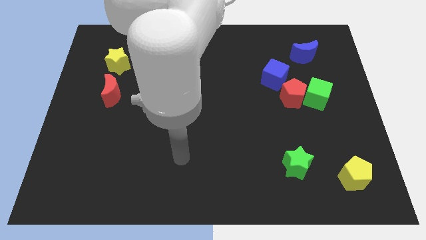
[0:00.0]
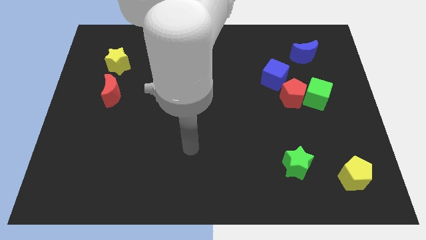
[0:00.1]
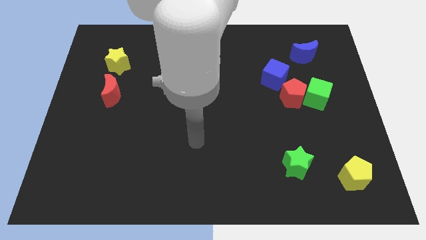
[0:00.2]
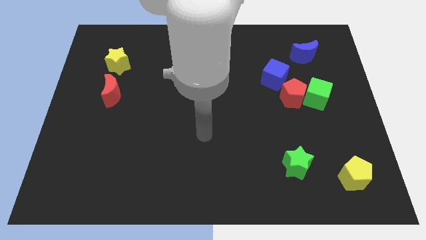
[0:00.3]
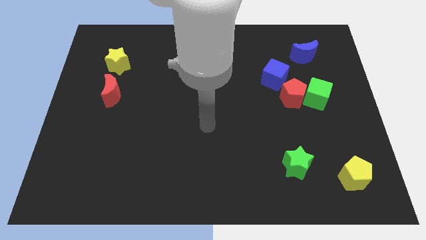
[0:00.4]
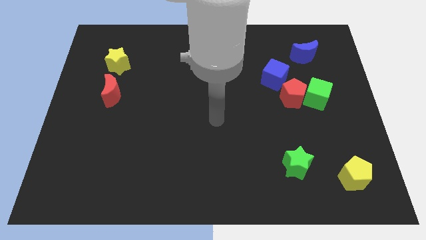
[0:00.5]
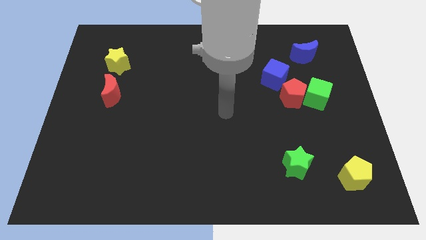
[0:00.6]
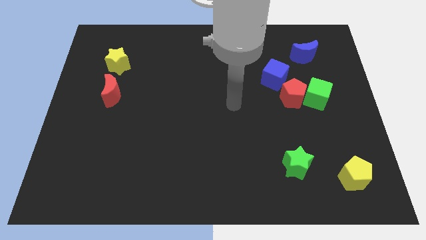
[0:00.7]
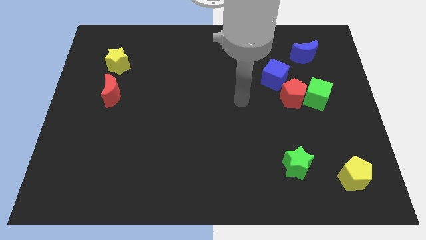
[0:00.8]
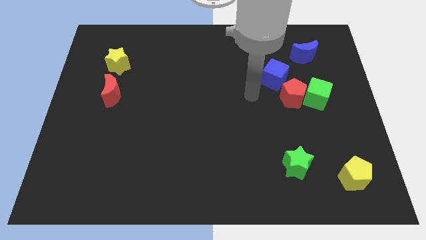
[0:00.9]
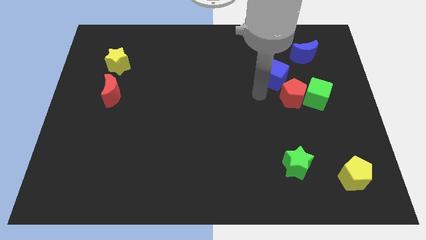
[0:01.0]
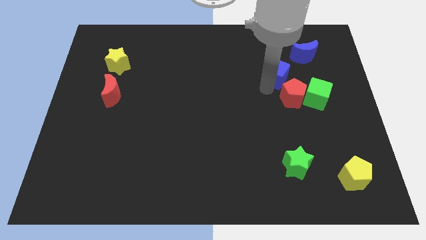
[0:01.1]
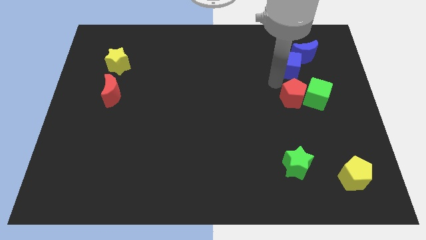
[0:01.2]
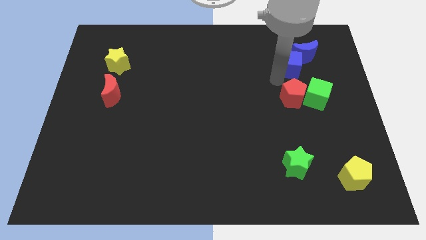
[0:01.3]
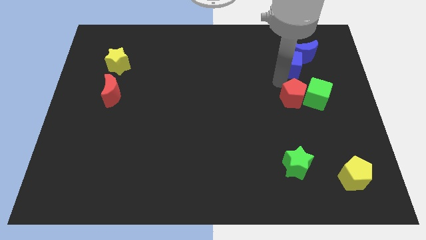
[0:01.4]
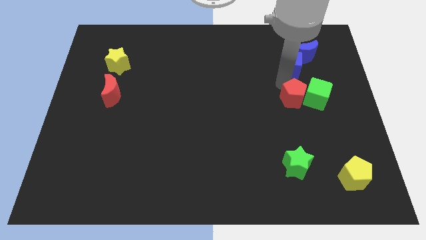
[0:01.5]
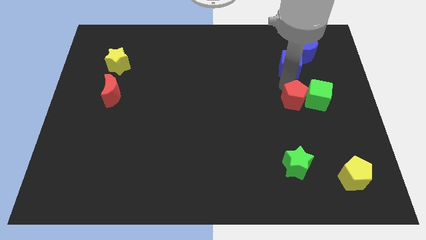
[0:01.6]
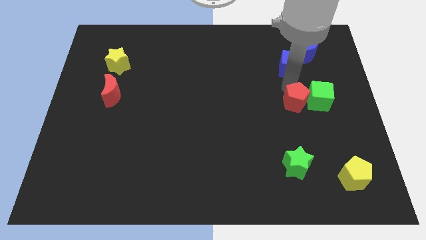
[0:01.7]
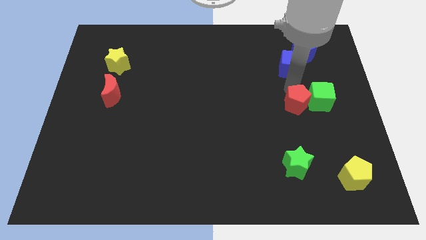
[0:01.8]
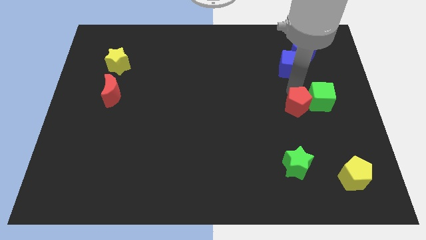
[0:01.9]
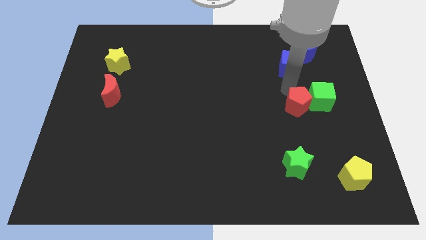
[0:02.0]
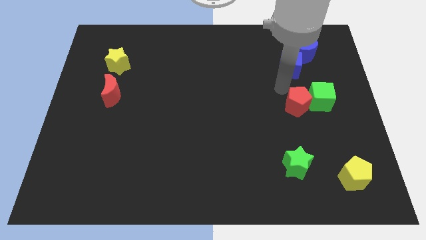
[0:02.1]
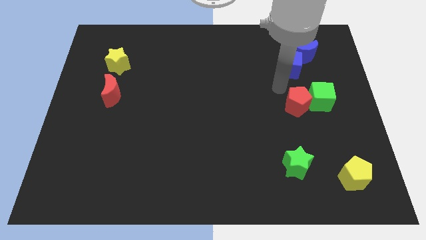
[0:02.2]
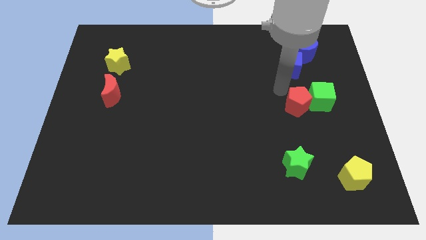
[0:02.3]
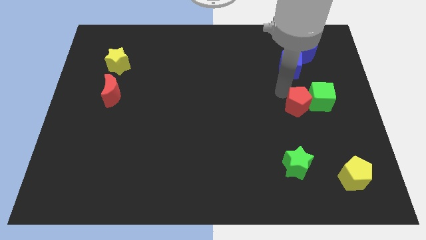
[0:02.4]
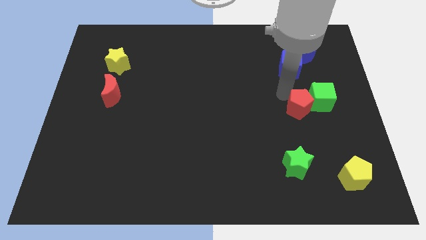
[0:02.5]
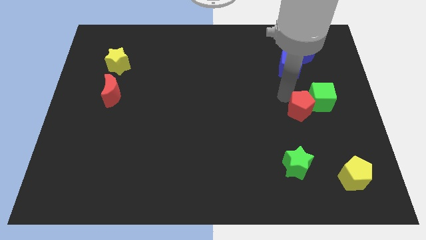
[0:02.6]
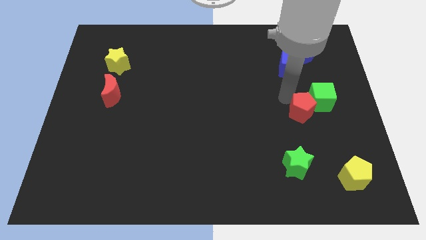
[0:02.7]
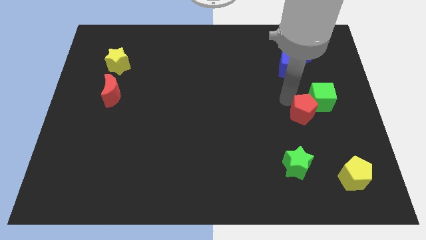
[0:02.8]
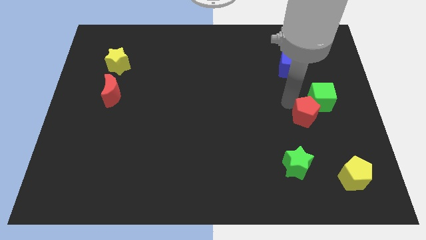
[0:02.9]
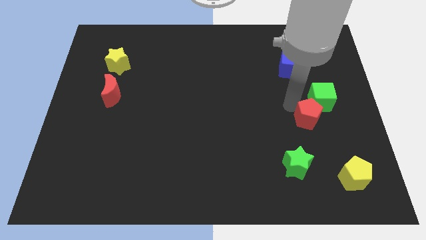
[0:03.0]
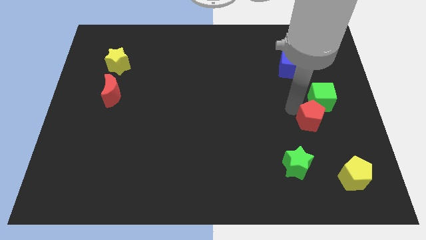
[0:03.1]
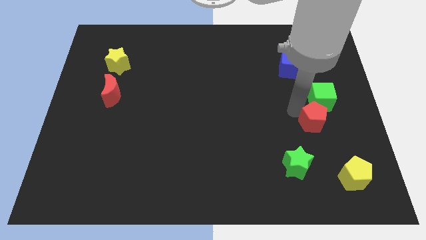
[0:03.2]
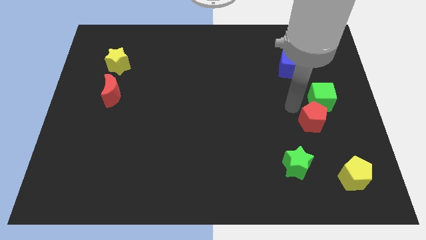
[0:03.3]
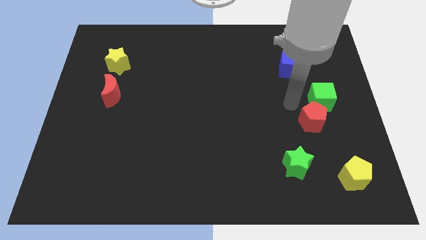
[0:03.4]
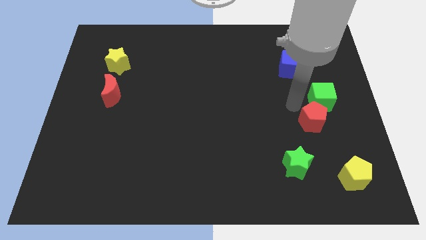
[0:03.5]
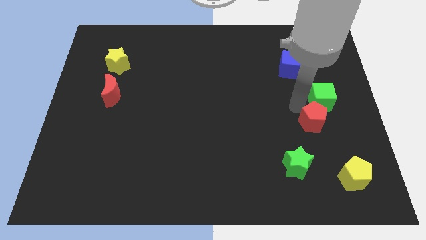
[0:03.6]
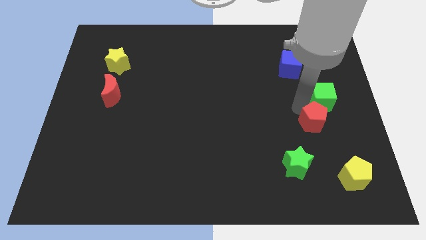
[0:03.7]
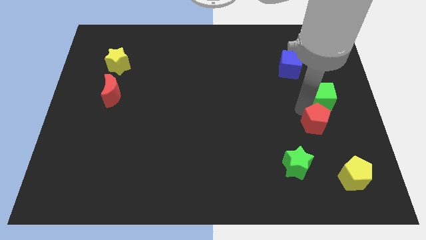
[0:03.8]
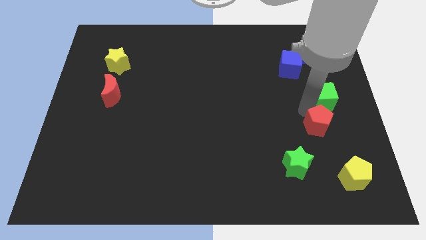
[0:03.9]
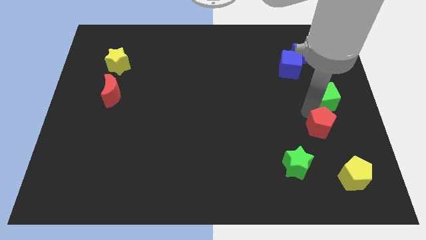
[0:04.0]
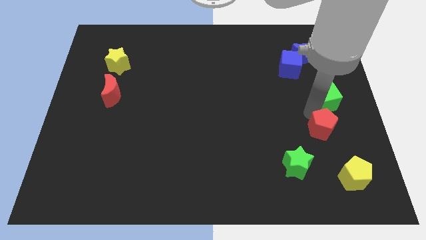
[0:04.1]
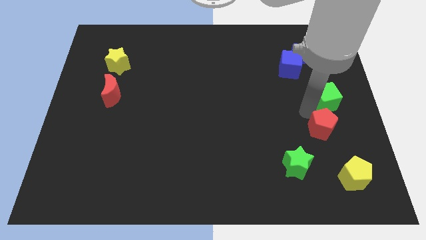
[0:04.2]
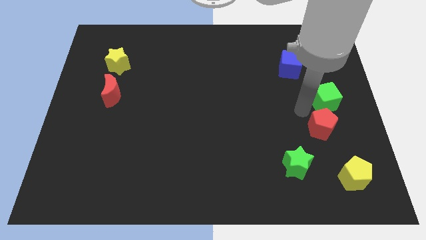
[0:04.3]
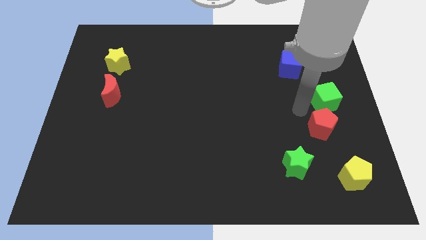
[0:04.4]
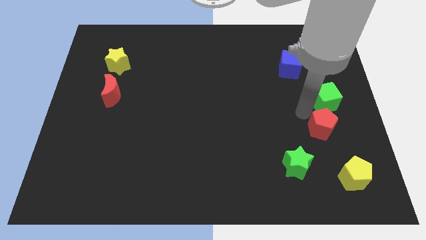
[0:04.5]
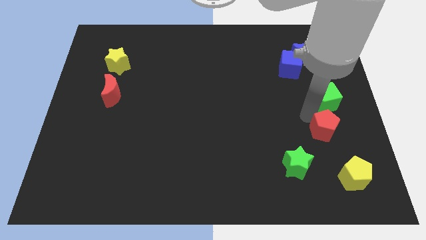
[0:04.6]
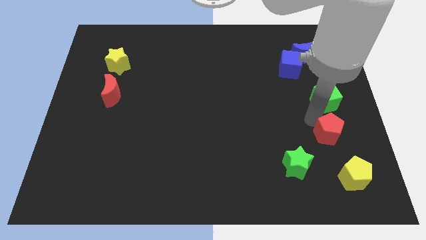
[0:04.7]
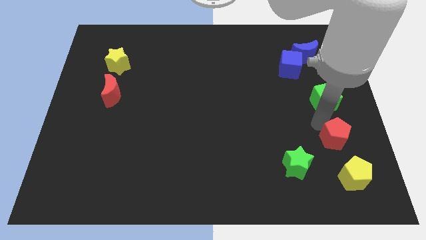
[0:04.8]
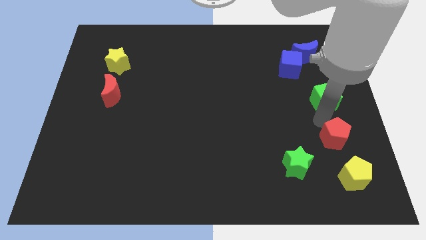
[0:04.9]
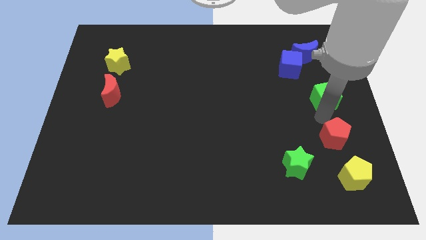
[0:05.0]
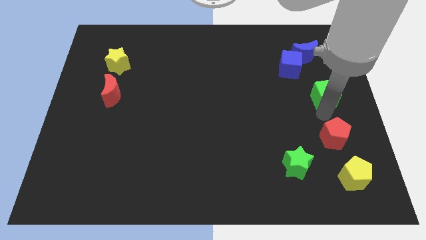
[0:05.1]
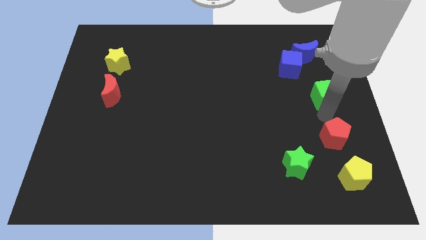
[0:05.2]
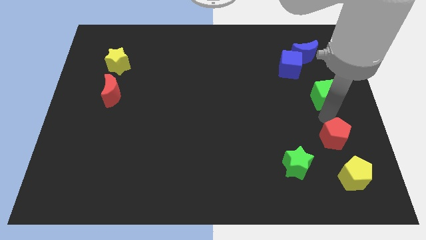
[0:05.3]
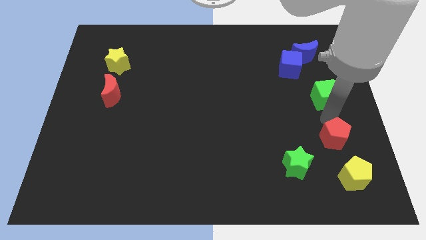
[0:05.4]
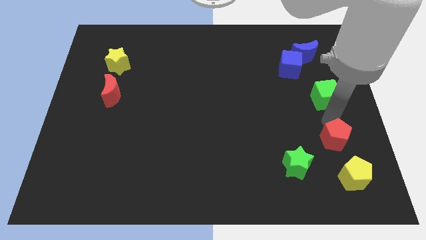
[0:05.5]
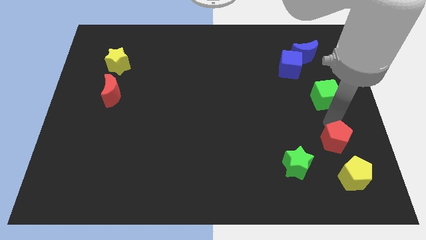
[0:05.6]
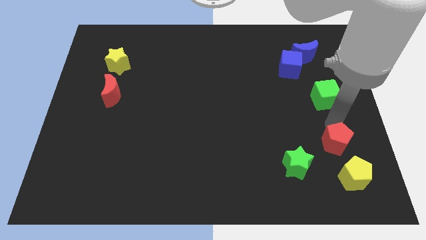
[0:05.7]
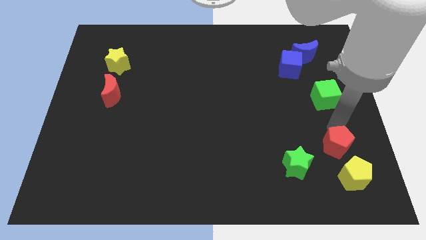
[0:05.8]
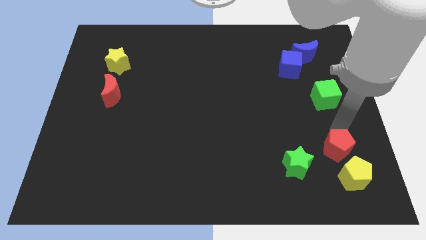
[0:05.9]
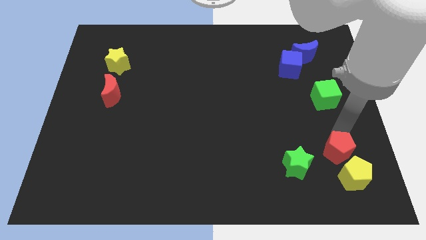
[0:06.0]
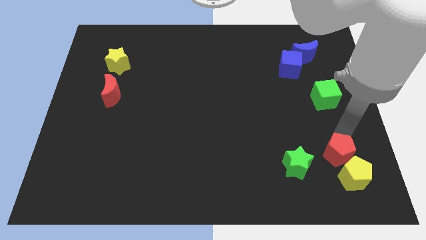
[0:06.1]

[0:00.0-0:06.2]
push the red pentagon next to the yellow pentagon
